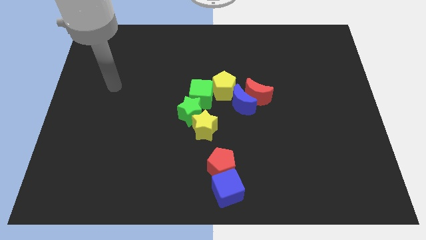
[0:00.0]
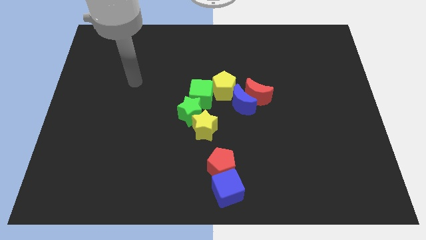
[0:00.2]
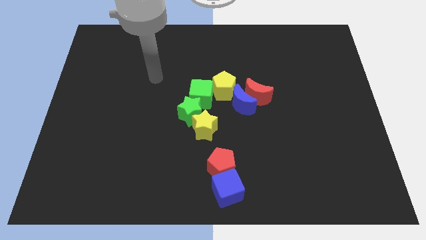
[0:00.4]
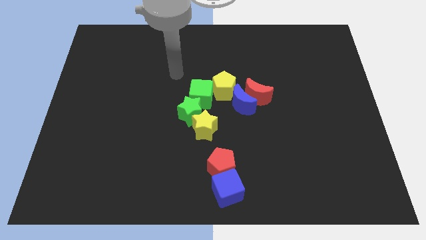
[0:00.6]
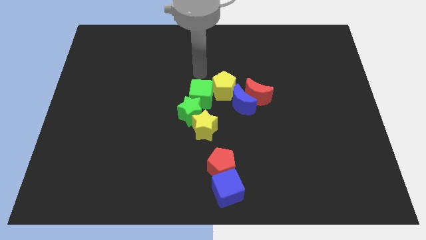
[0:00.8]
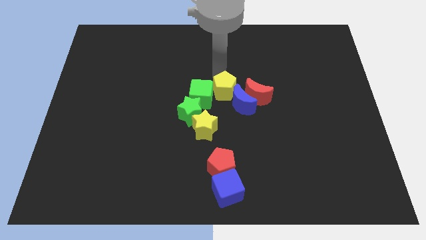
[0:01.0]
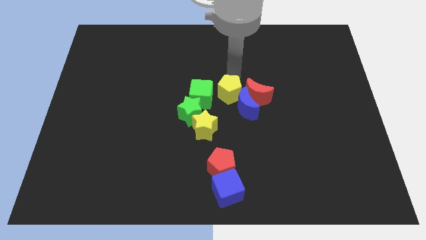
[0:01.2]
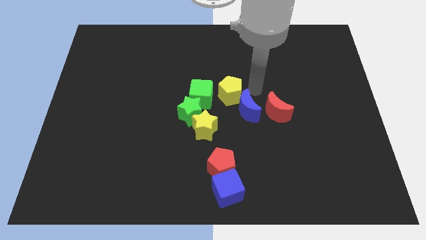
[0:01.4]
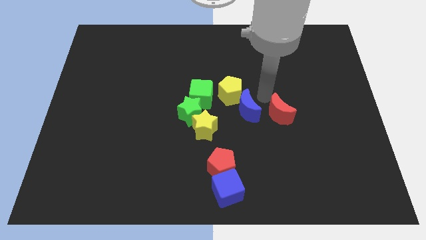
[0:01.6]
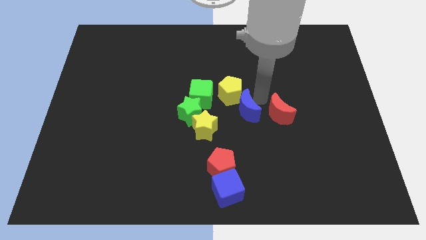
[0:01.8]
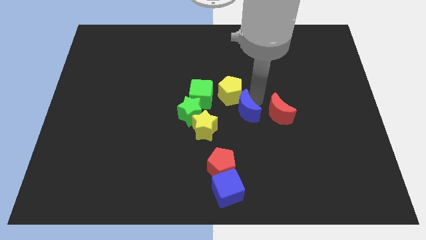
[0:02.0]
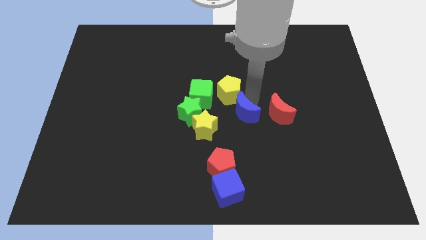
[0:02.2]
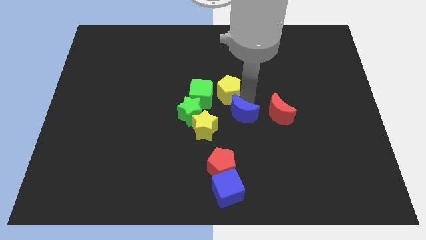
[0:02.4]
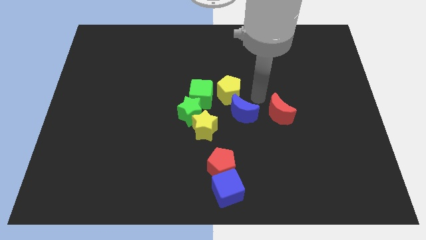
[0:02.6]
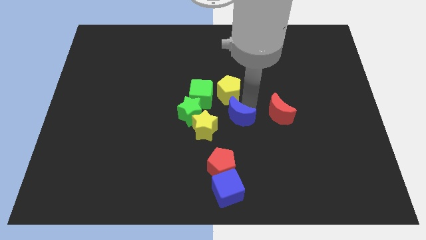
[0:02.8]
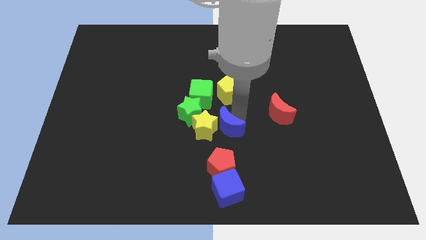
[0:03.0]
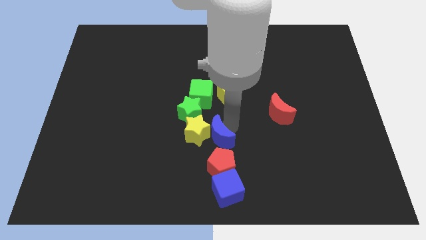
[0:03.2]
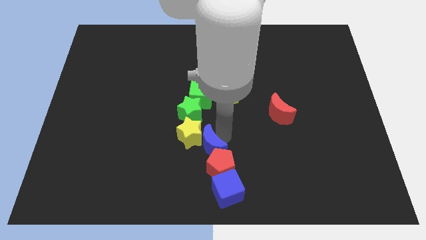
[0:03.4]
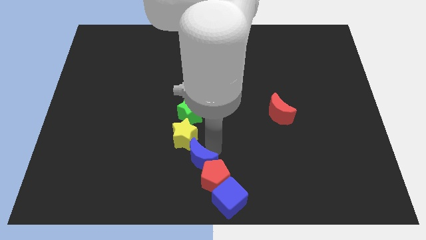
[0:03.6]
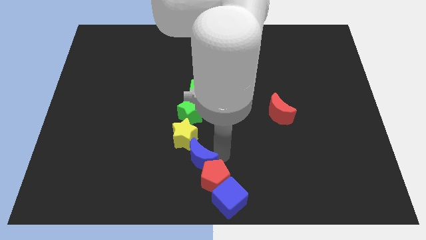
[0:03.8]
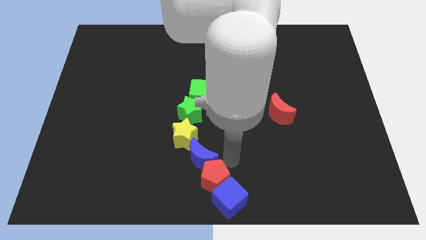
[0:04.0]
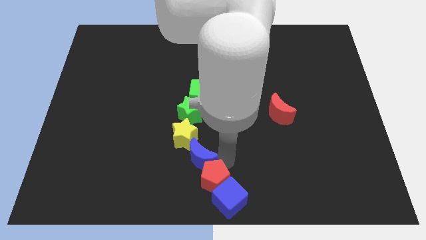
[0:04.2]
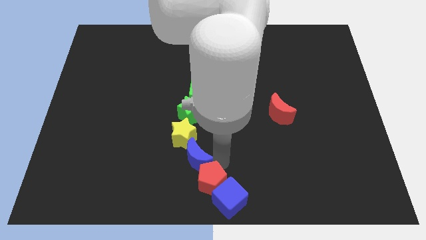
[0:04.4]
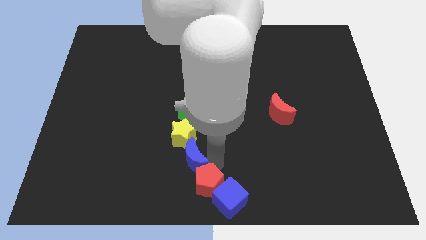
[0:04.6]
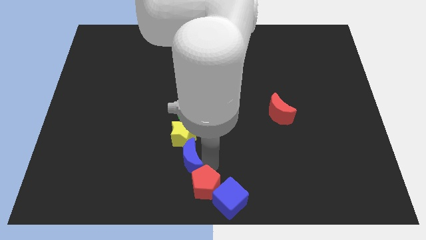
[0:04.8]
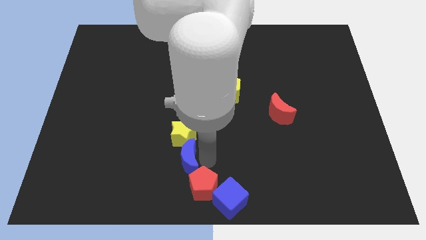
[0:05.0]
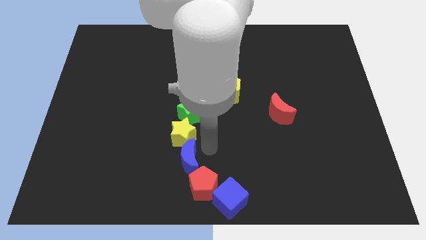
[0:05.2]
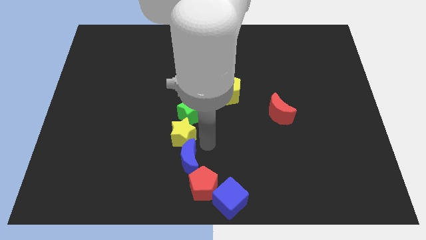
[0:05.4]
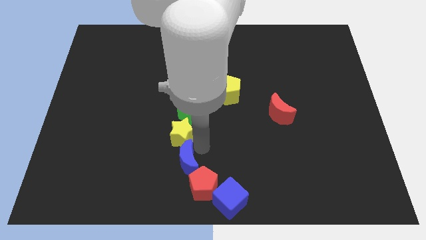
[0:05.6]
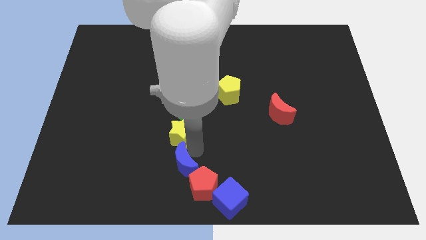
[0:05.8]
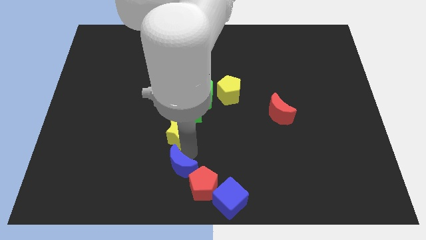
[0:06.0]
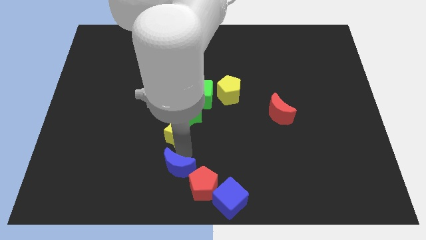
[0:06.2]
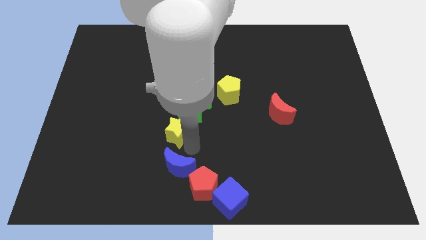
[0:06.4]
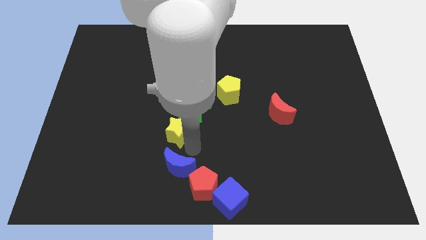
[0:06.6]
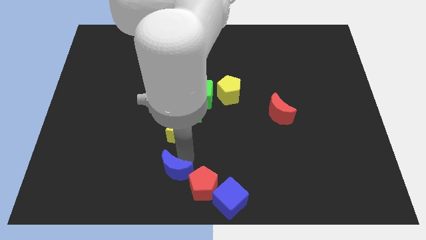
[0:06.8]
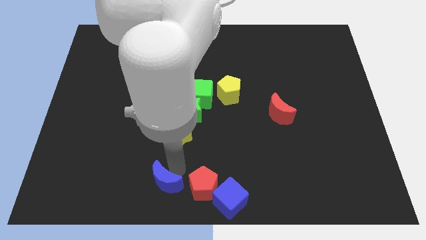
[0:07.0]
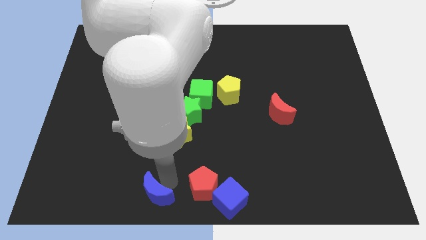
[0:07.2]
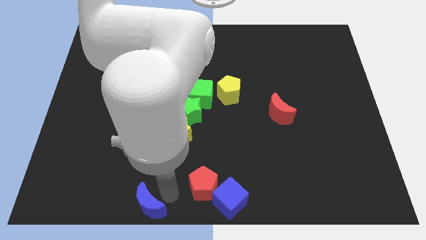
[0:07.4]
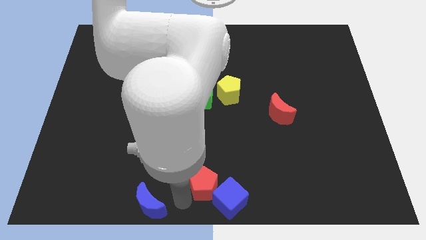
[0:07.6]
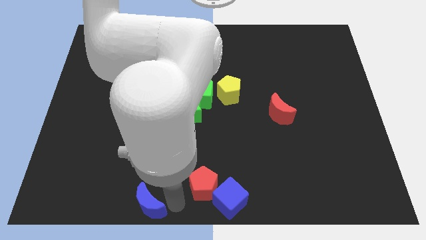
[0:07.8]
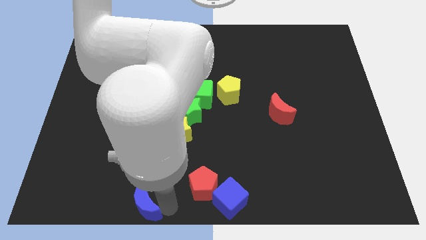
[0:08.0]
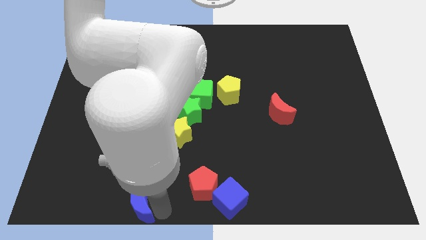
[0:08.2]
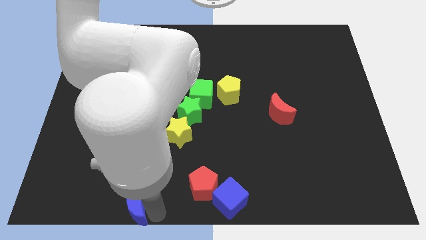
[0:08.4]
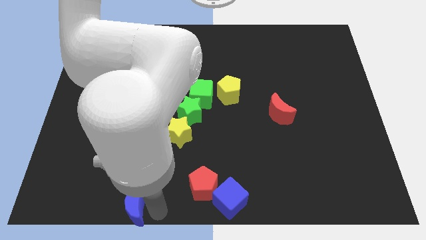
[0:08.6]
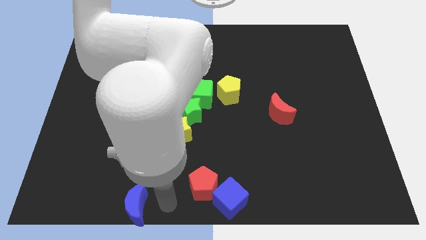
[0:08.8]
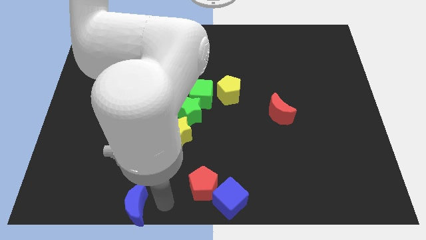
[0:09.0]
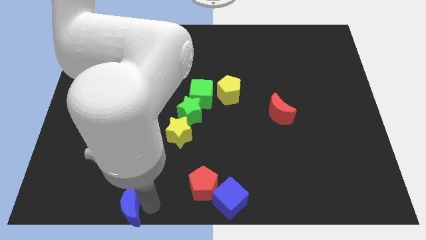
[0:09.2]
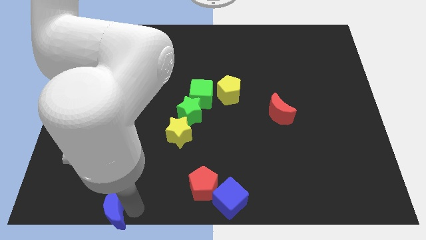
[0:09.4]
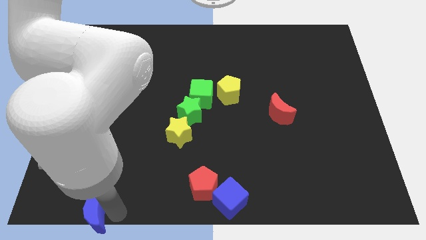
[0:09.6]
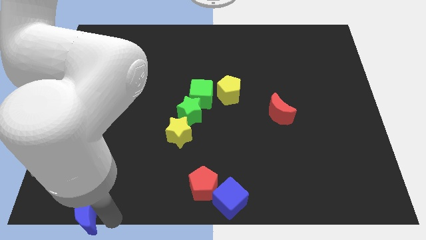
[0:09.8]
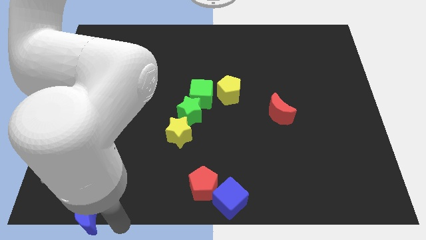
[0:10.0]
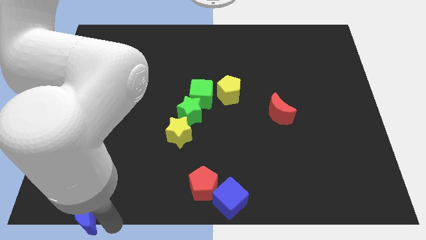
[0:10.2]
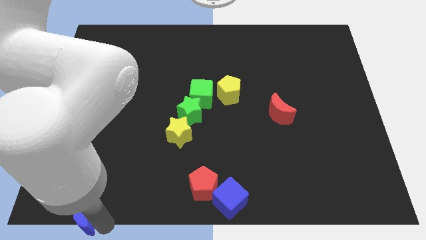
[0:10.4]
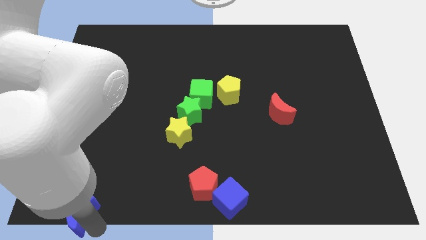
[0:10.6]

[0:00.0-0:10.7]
move the blue moon to the bottom left
